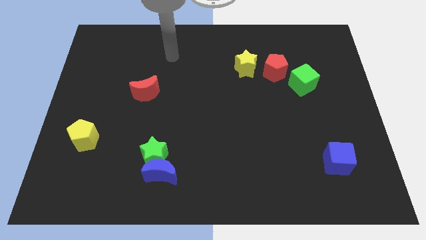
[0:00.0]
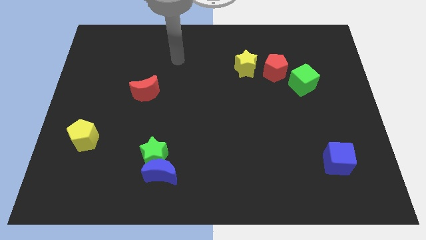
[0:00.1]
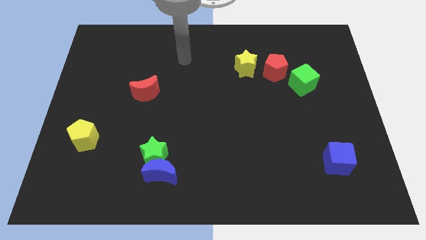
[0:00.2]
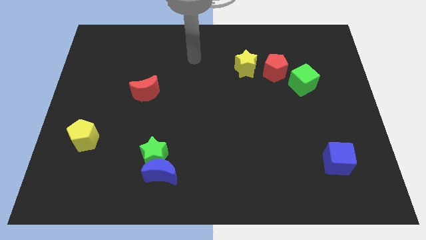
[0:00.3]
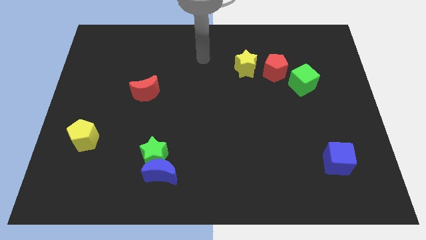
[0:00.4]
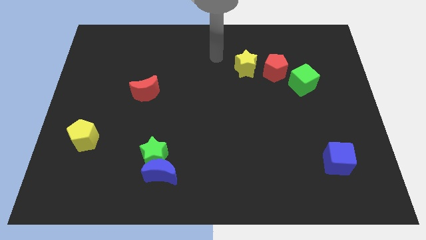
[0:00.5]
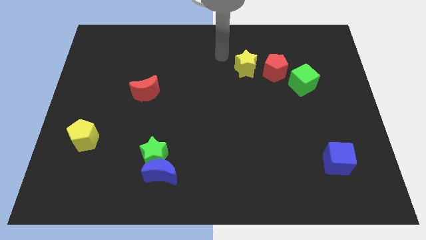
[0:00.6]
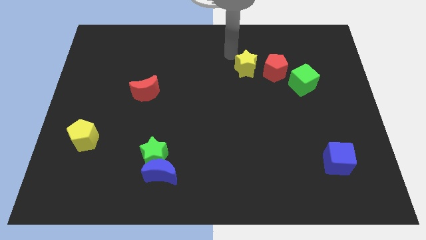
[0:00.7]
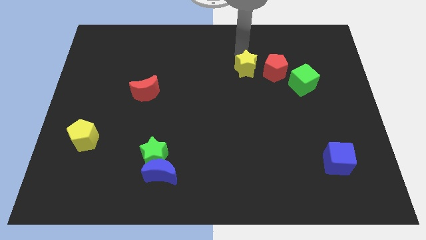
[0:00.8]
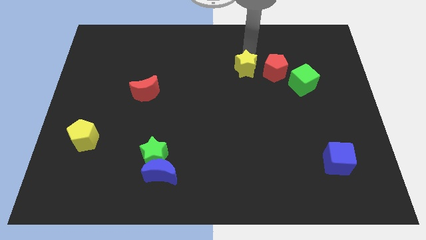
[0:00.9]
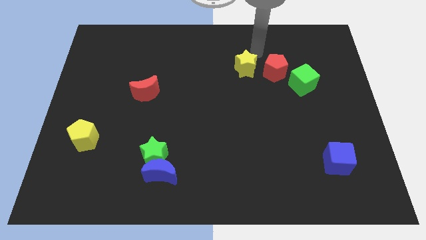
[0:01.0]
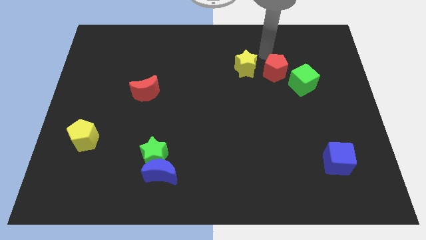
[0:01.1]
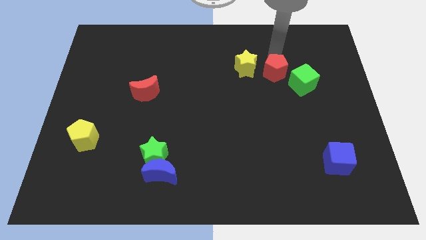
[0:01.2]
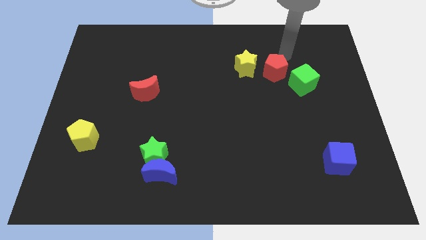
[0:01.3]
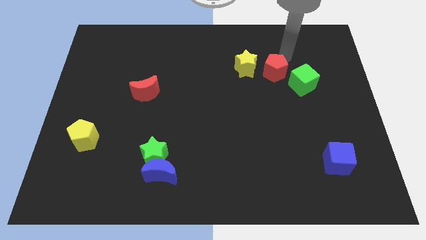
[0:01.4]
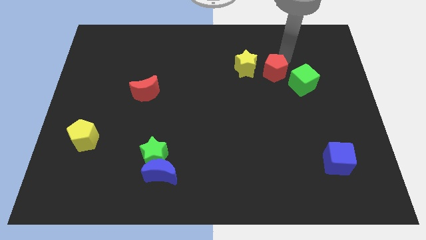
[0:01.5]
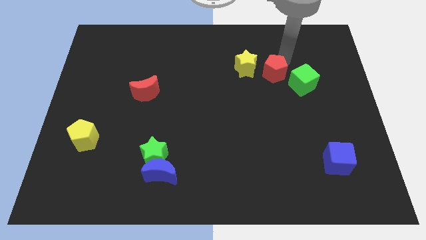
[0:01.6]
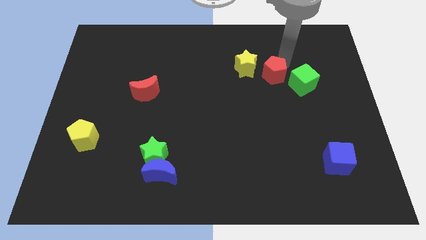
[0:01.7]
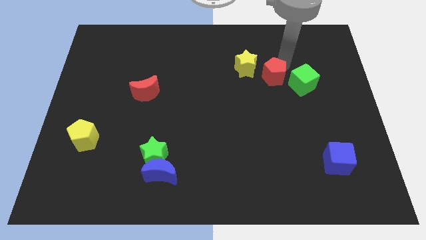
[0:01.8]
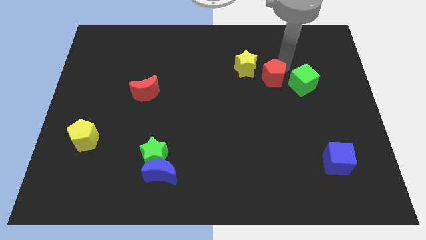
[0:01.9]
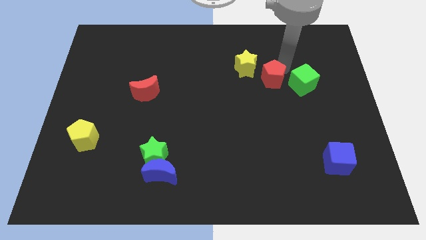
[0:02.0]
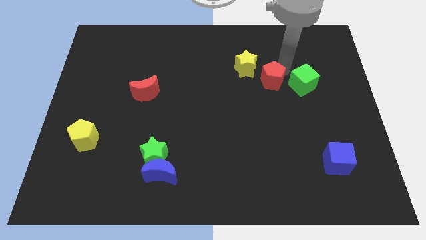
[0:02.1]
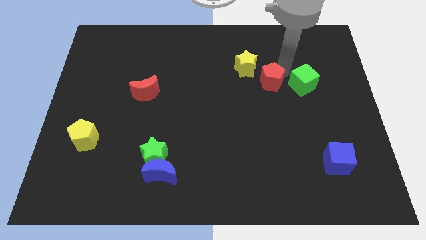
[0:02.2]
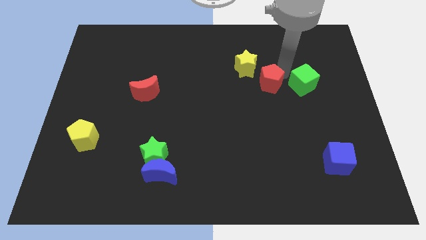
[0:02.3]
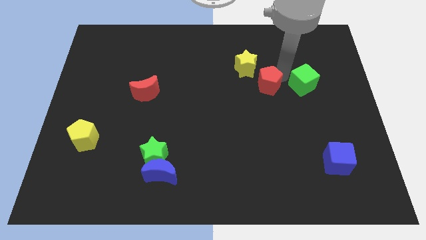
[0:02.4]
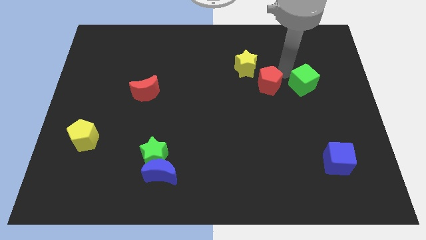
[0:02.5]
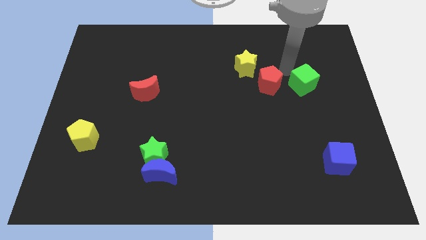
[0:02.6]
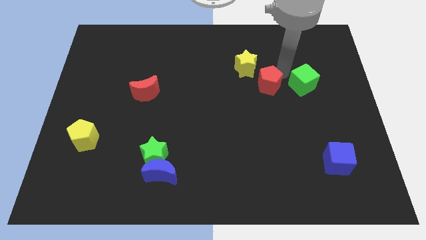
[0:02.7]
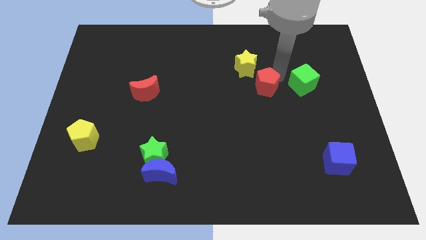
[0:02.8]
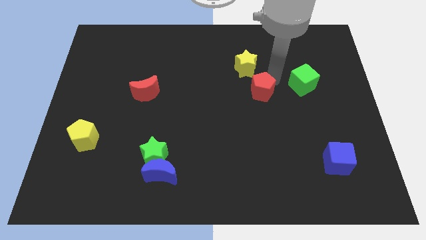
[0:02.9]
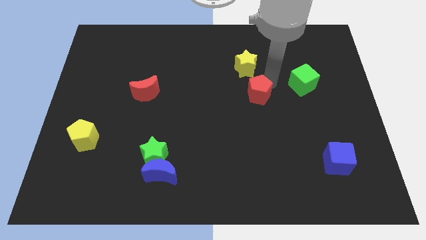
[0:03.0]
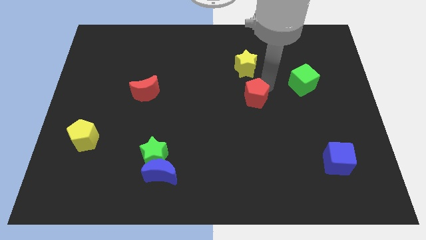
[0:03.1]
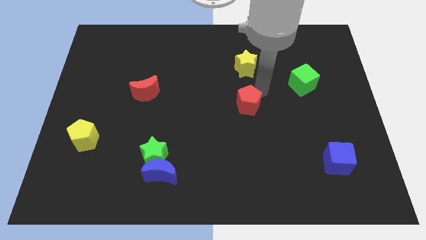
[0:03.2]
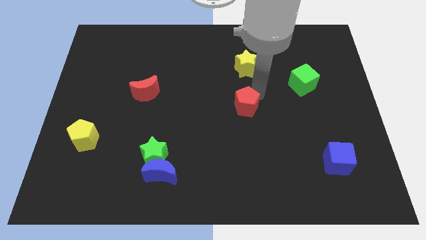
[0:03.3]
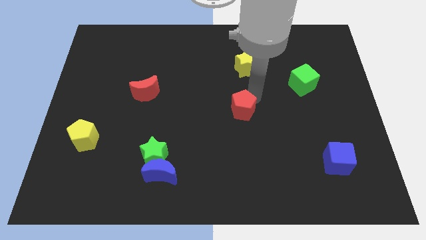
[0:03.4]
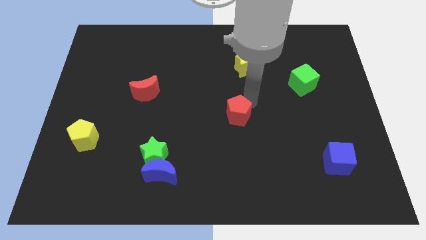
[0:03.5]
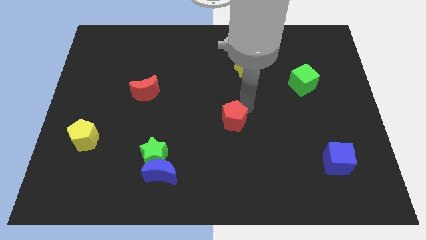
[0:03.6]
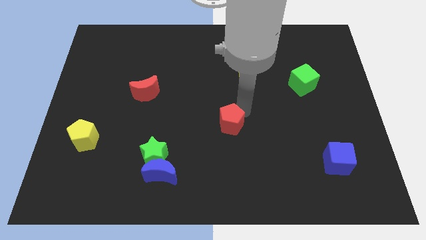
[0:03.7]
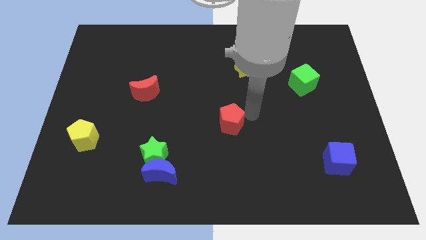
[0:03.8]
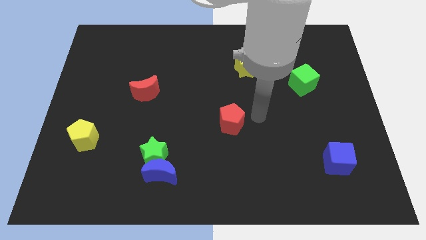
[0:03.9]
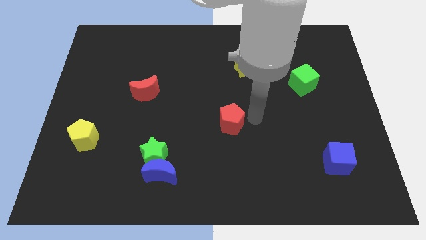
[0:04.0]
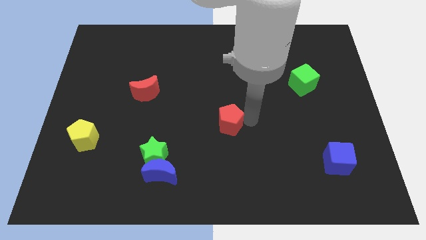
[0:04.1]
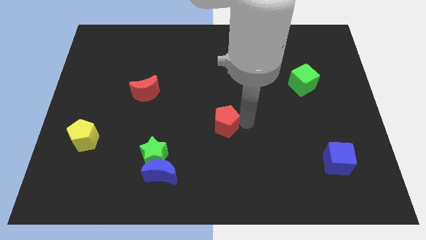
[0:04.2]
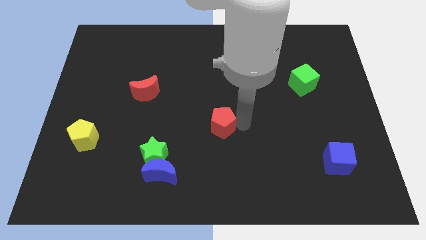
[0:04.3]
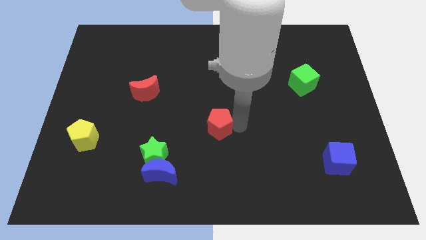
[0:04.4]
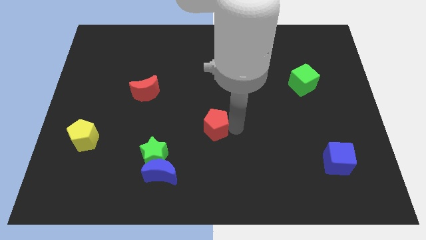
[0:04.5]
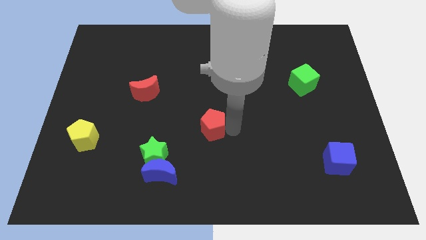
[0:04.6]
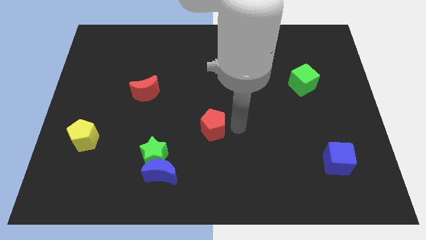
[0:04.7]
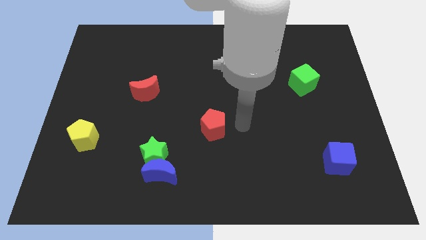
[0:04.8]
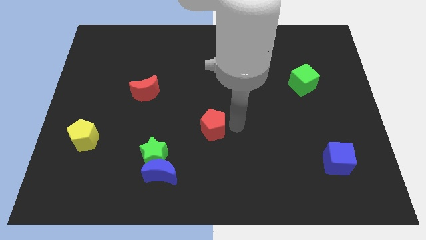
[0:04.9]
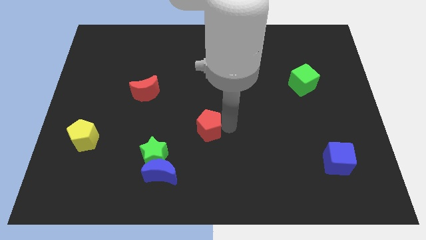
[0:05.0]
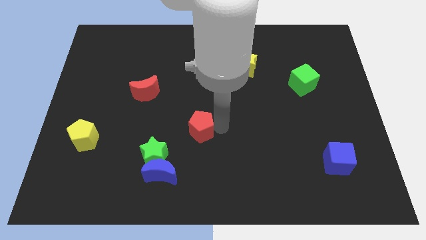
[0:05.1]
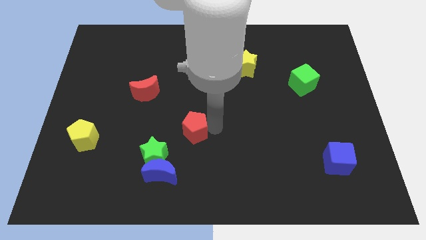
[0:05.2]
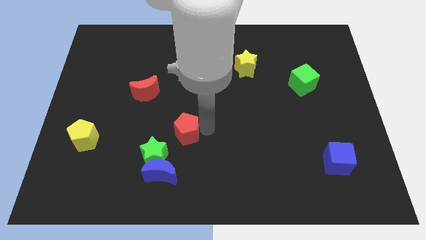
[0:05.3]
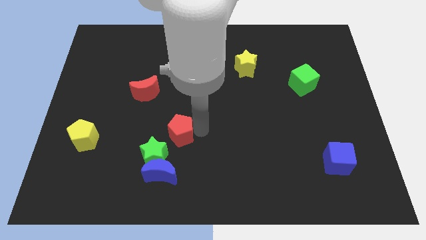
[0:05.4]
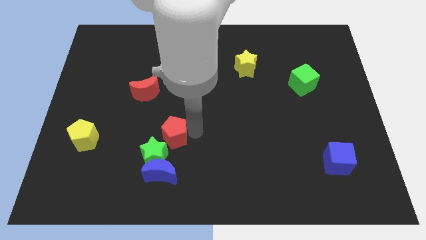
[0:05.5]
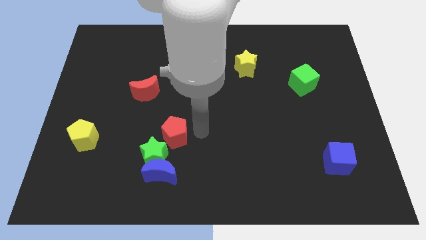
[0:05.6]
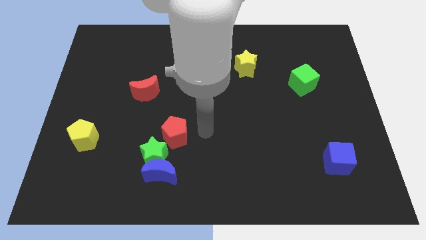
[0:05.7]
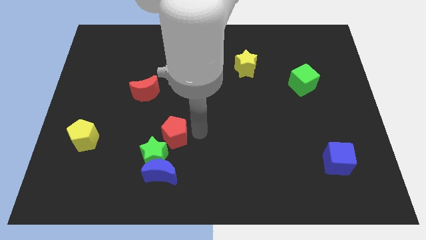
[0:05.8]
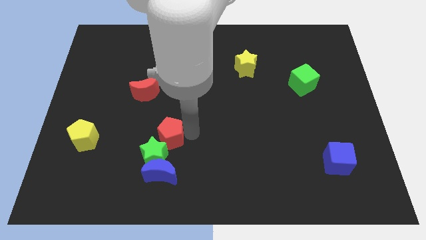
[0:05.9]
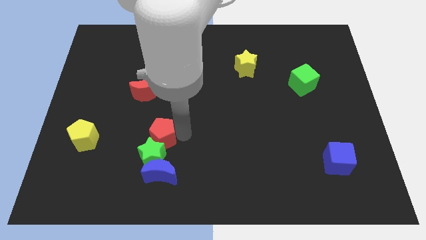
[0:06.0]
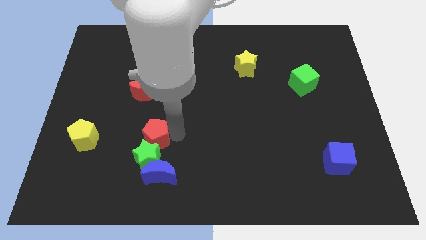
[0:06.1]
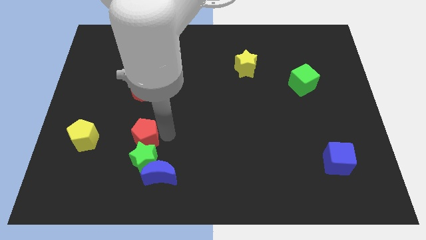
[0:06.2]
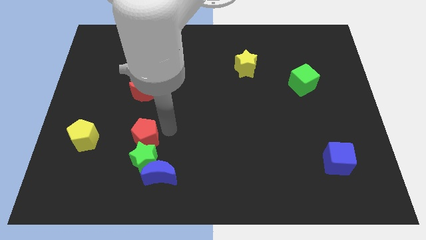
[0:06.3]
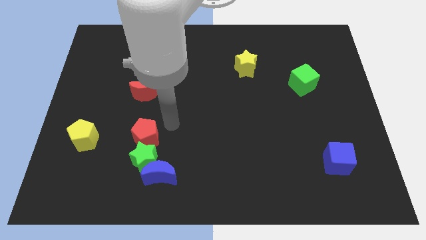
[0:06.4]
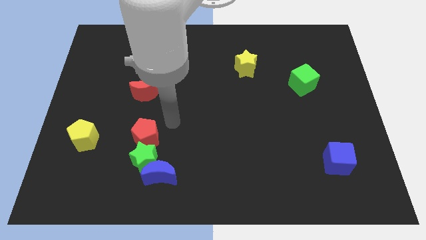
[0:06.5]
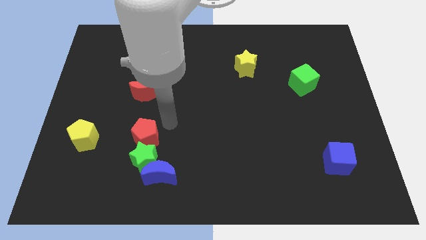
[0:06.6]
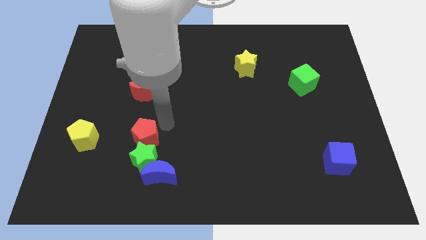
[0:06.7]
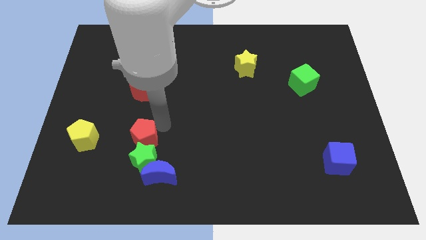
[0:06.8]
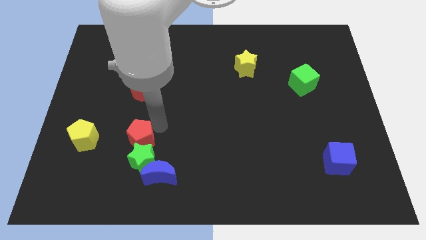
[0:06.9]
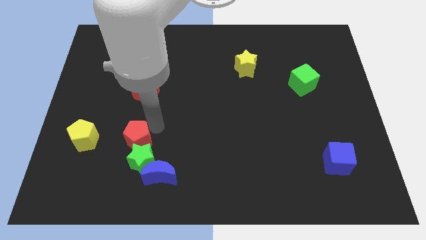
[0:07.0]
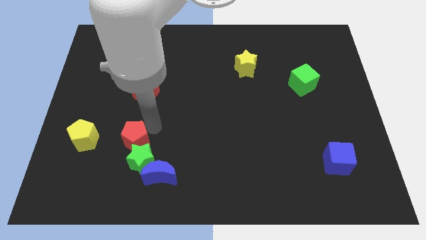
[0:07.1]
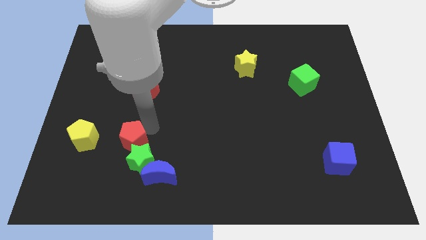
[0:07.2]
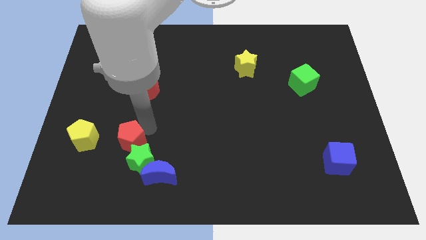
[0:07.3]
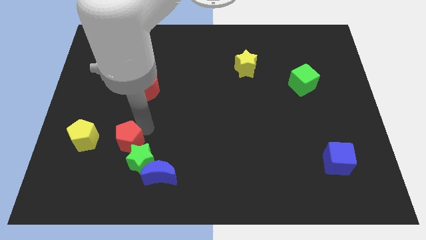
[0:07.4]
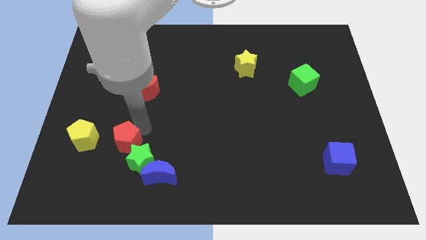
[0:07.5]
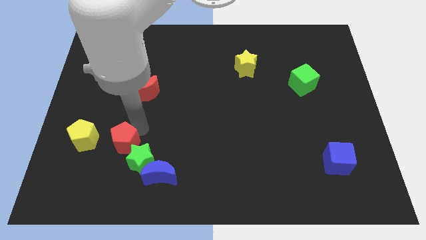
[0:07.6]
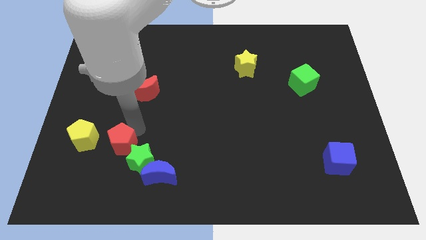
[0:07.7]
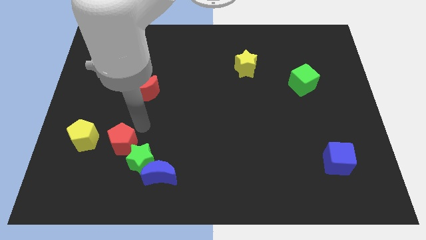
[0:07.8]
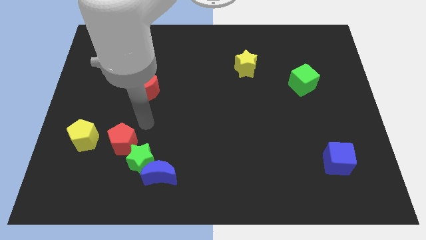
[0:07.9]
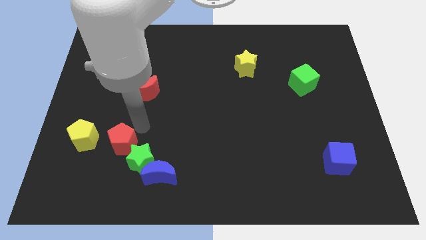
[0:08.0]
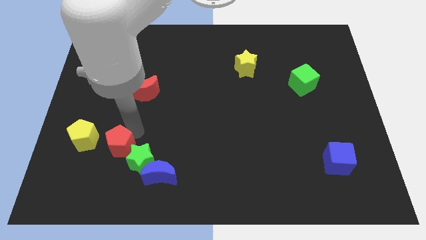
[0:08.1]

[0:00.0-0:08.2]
move the red pentagon diagonally down and to the right of the yellow pentagon
